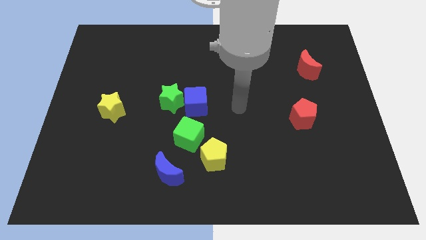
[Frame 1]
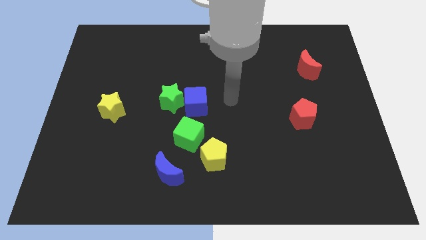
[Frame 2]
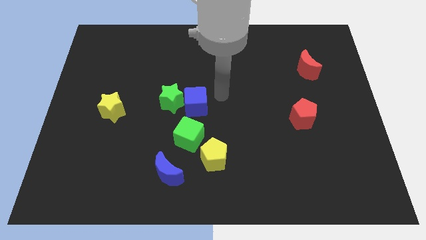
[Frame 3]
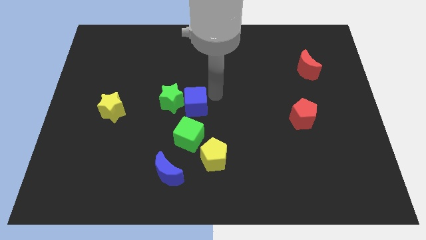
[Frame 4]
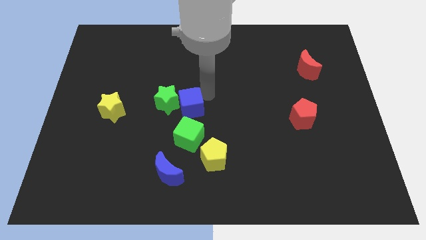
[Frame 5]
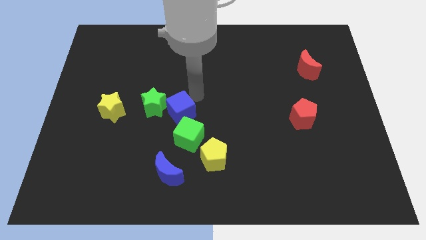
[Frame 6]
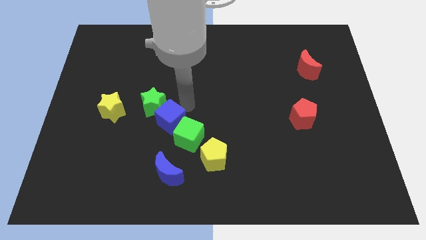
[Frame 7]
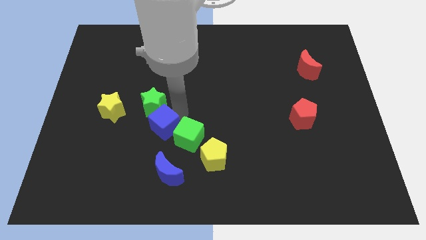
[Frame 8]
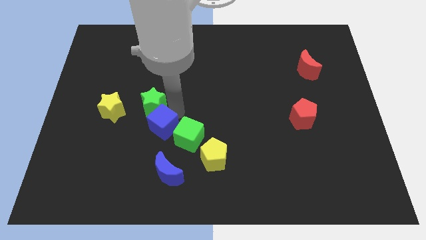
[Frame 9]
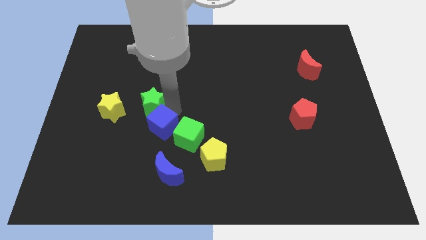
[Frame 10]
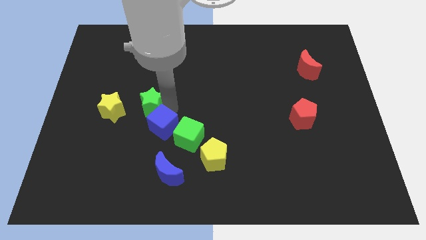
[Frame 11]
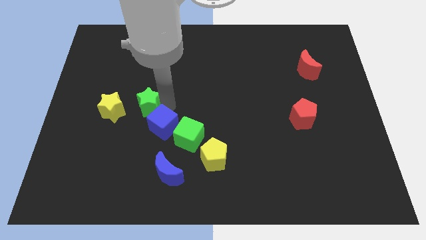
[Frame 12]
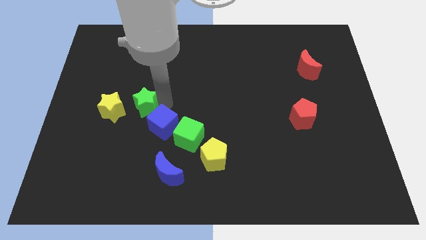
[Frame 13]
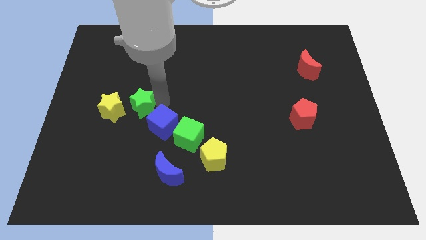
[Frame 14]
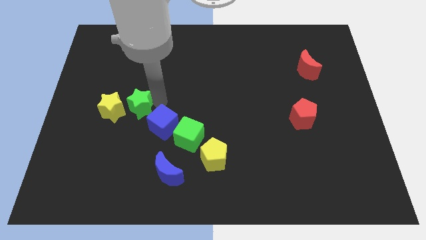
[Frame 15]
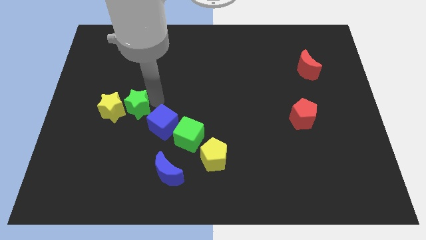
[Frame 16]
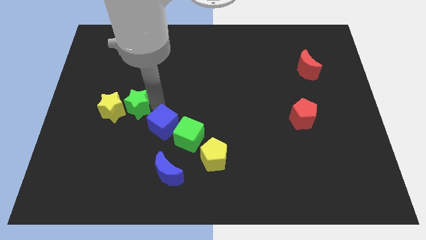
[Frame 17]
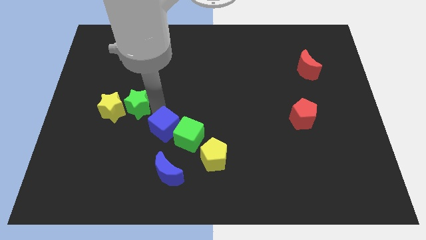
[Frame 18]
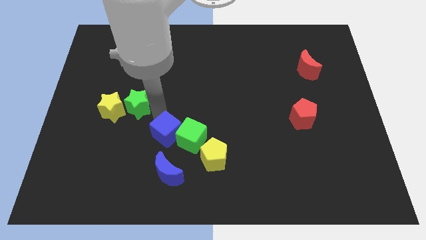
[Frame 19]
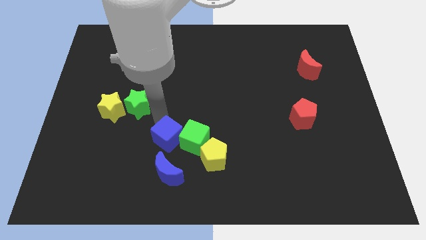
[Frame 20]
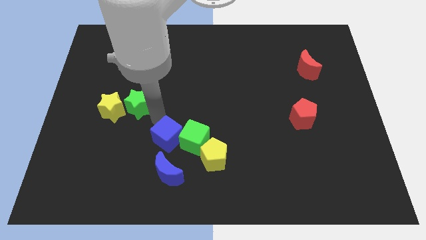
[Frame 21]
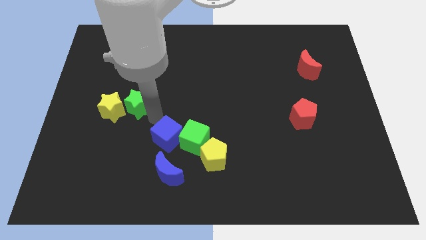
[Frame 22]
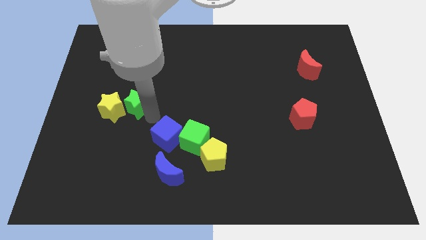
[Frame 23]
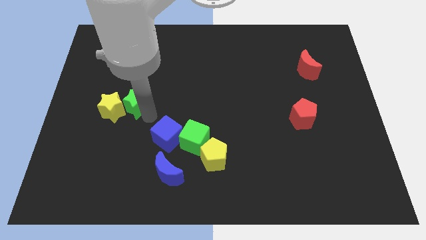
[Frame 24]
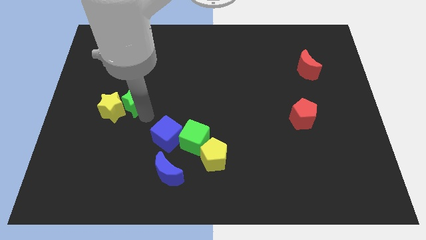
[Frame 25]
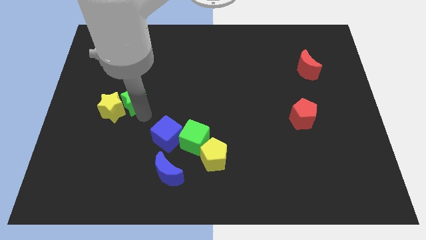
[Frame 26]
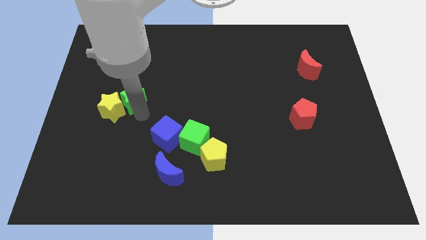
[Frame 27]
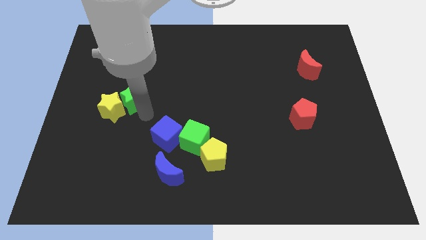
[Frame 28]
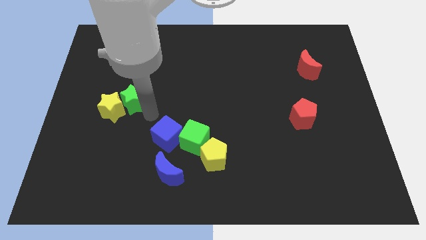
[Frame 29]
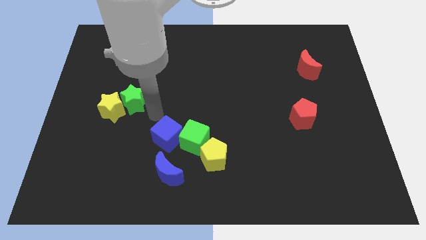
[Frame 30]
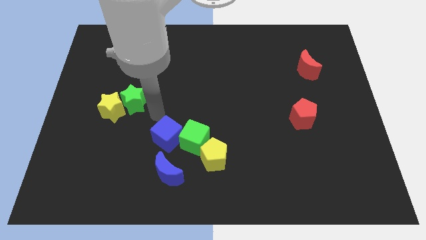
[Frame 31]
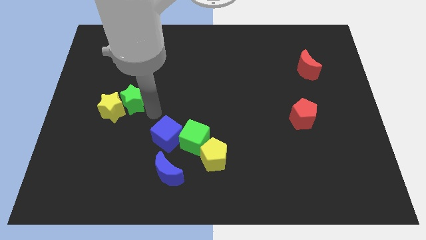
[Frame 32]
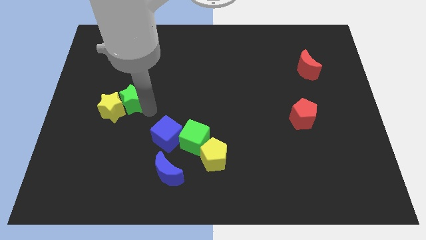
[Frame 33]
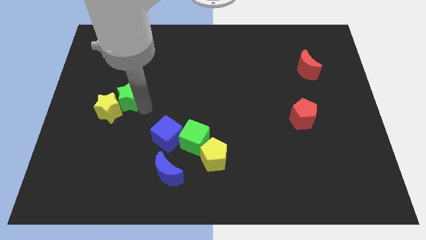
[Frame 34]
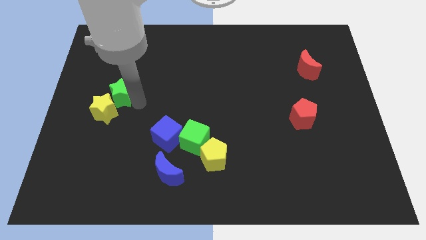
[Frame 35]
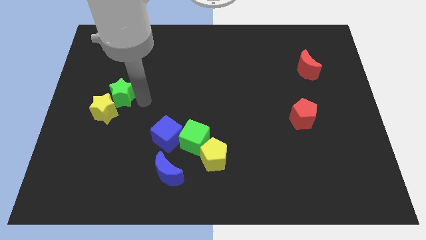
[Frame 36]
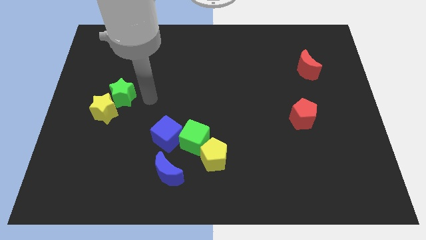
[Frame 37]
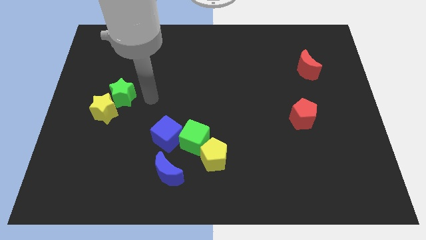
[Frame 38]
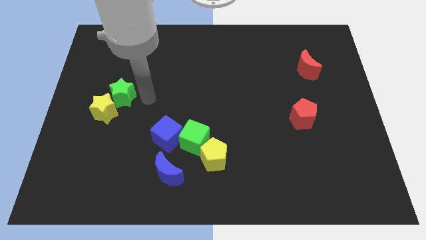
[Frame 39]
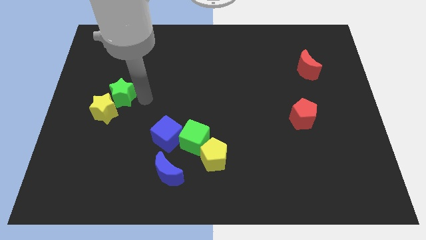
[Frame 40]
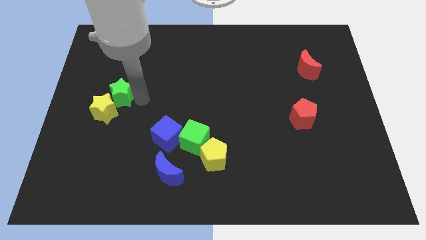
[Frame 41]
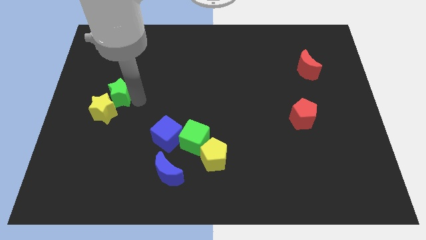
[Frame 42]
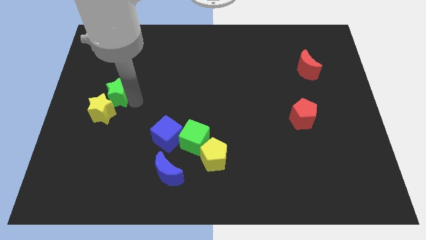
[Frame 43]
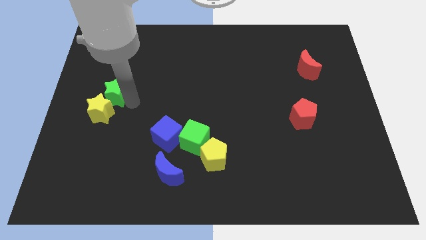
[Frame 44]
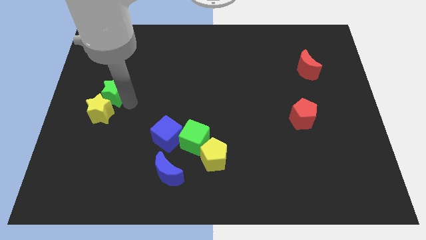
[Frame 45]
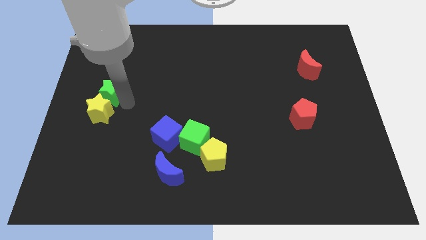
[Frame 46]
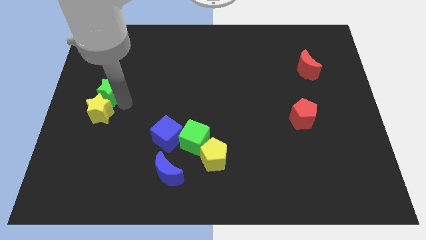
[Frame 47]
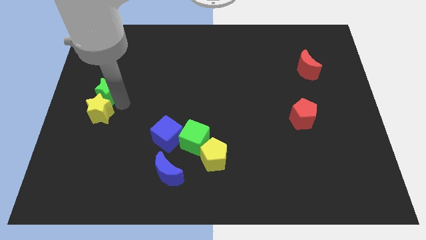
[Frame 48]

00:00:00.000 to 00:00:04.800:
move the green star to the left side

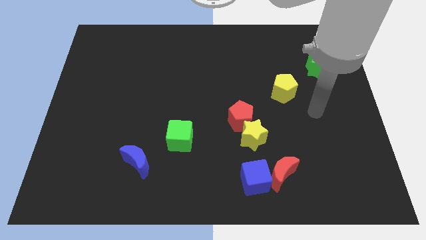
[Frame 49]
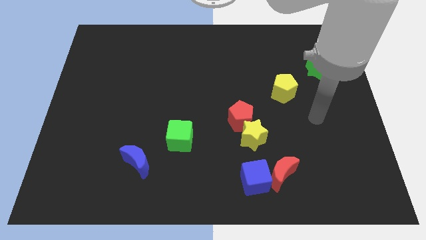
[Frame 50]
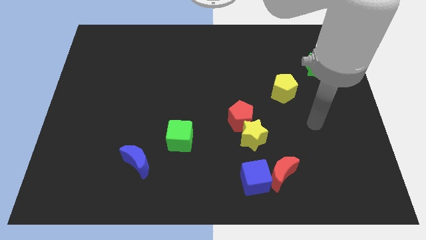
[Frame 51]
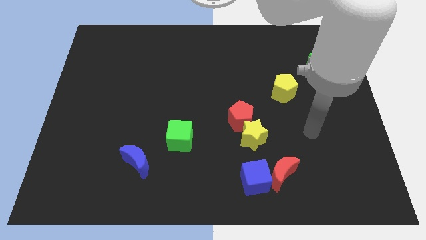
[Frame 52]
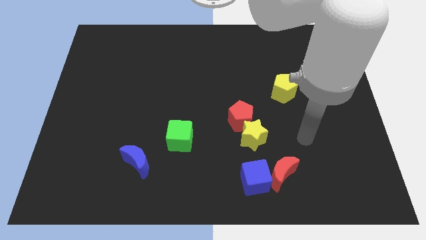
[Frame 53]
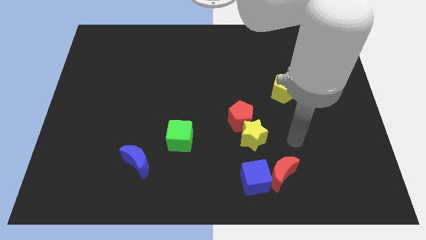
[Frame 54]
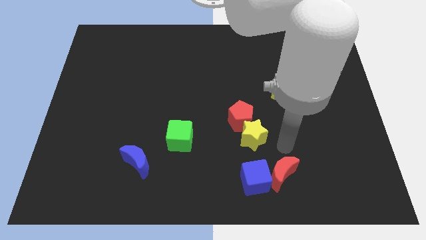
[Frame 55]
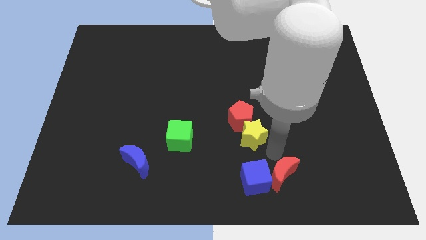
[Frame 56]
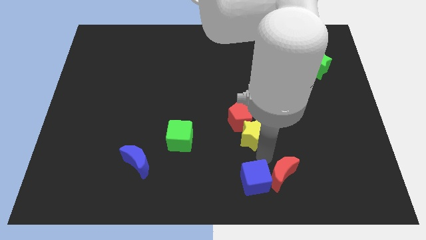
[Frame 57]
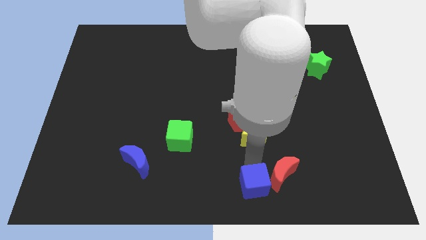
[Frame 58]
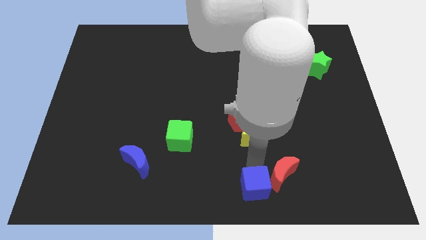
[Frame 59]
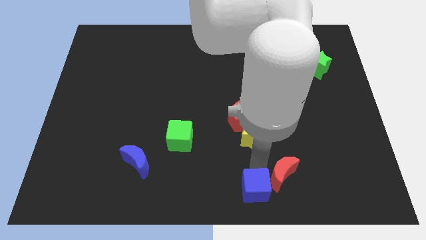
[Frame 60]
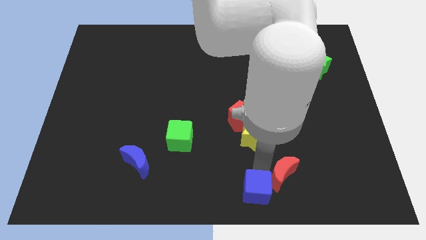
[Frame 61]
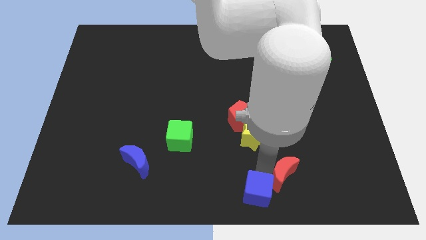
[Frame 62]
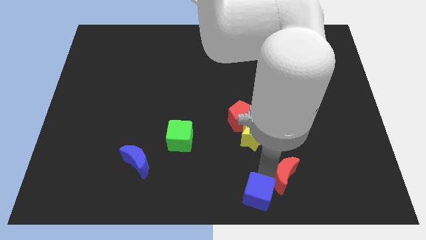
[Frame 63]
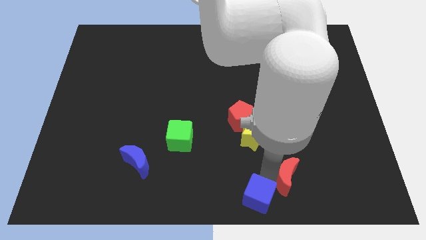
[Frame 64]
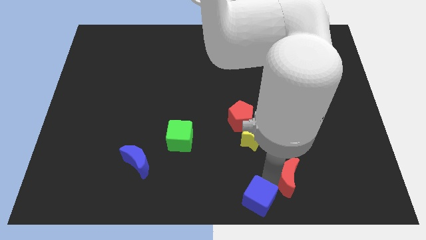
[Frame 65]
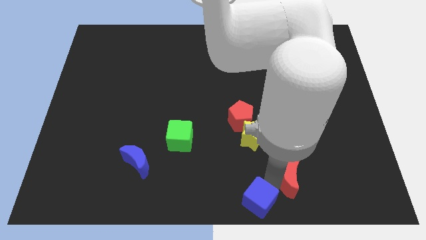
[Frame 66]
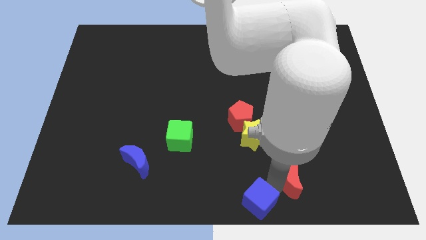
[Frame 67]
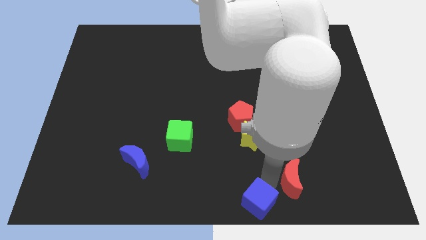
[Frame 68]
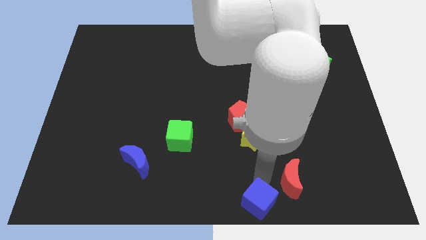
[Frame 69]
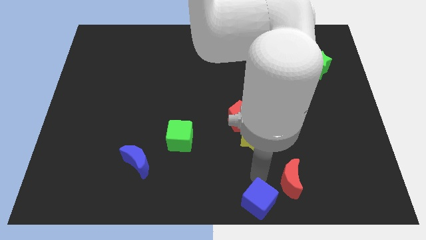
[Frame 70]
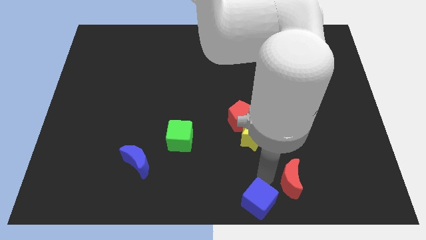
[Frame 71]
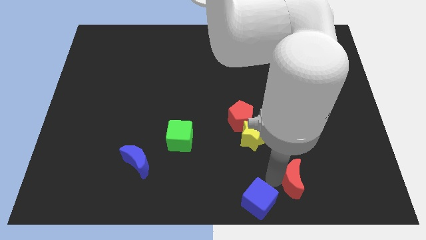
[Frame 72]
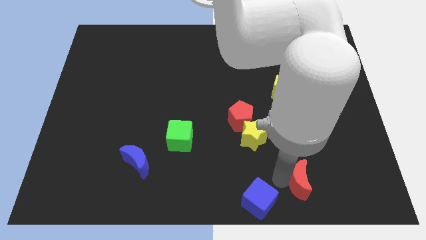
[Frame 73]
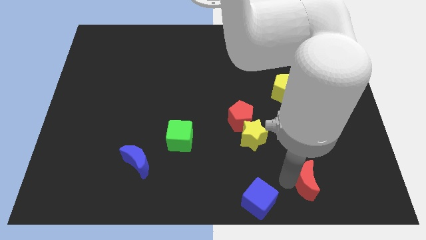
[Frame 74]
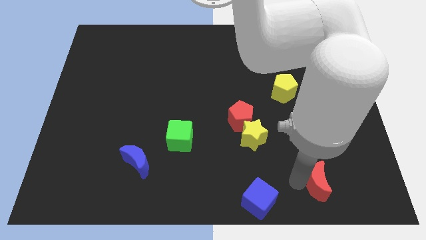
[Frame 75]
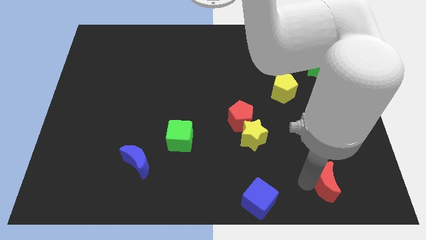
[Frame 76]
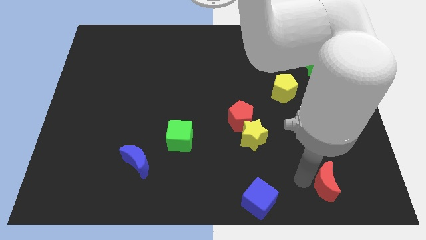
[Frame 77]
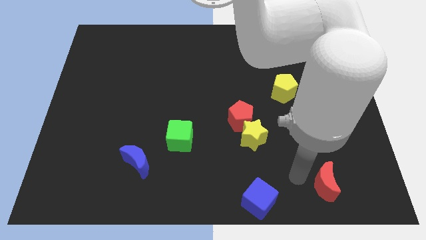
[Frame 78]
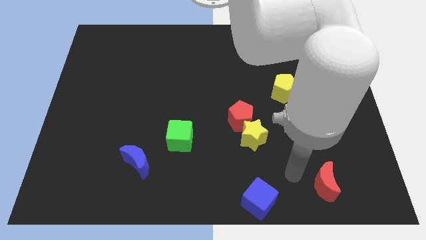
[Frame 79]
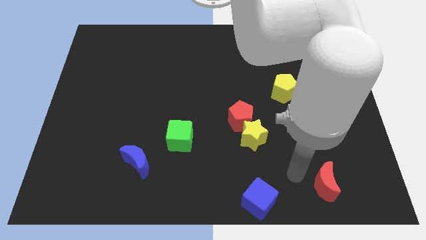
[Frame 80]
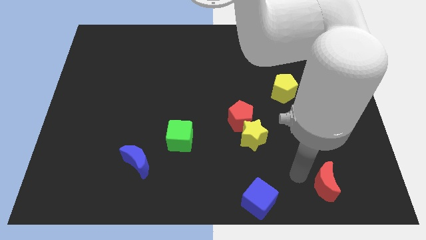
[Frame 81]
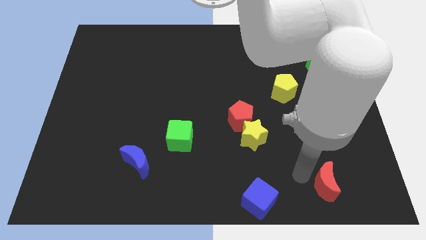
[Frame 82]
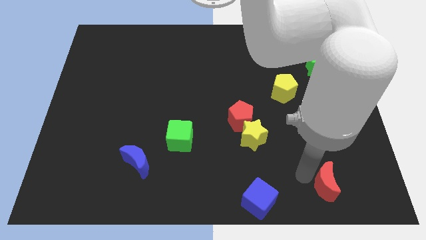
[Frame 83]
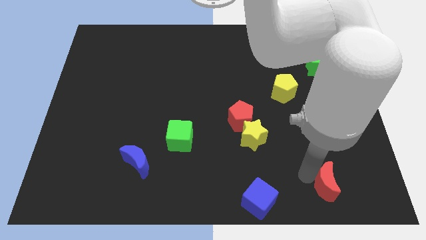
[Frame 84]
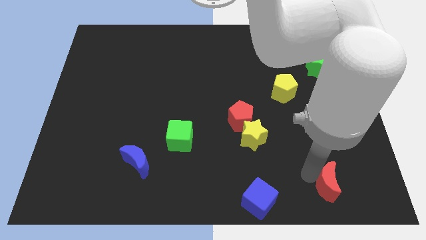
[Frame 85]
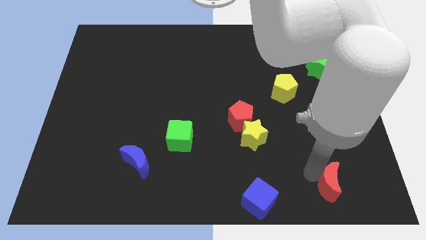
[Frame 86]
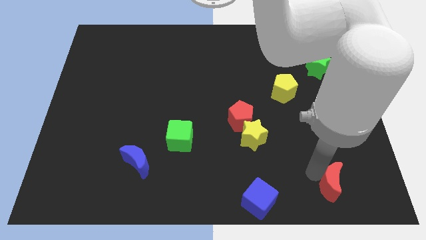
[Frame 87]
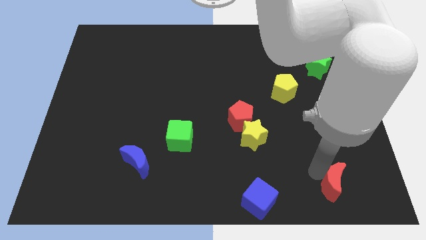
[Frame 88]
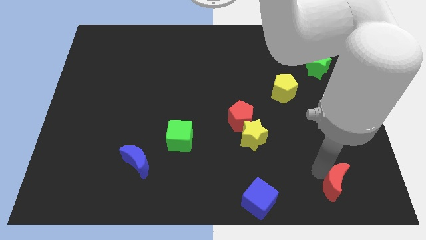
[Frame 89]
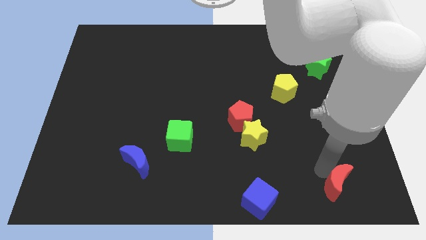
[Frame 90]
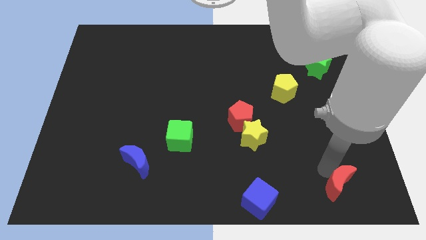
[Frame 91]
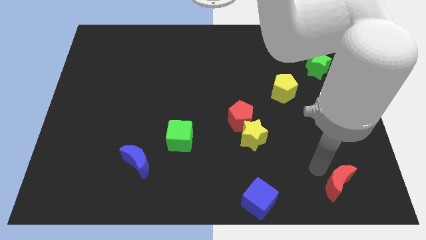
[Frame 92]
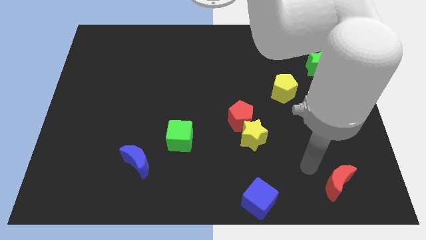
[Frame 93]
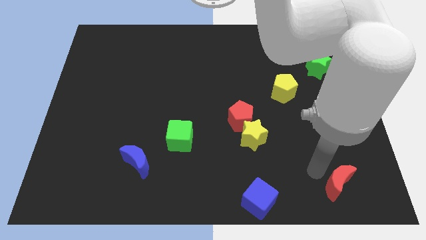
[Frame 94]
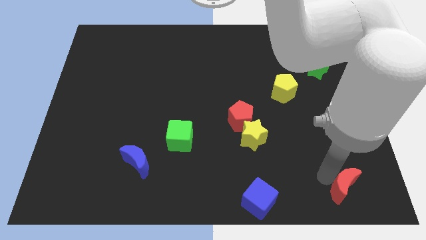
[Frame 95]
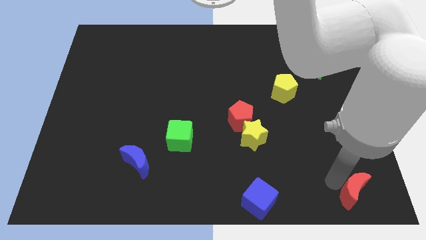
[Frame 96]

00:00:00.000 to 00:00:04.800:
put the red moon to the bottom right corner
